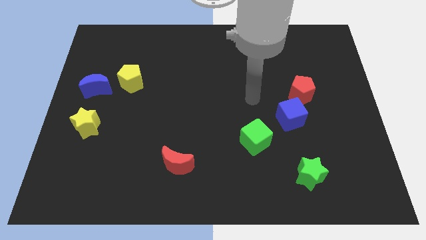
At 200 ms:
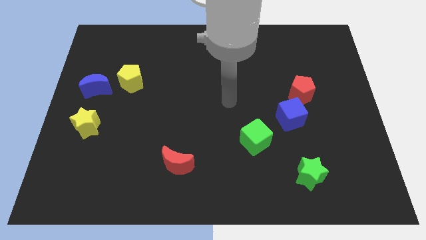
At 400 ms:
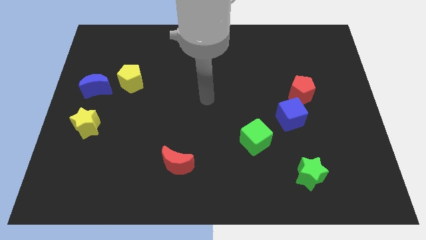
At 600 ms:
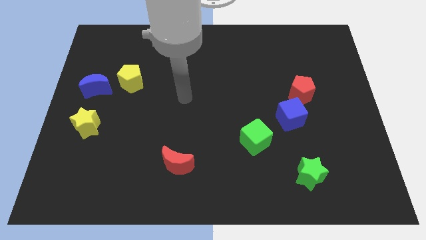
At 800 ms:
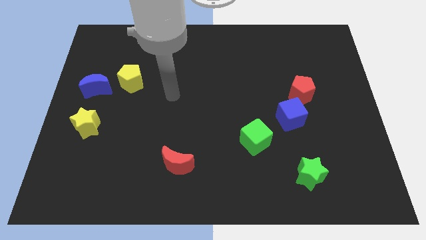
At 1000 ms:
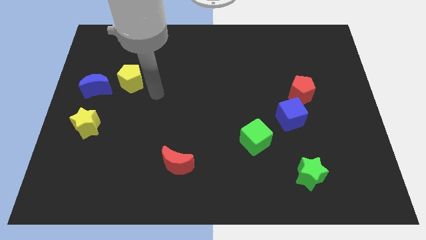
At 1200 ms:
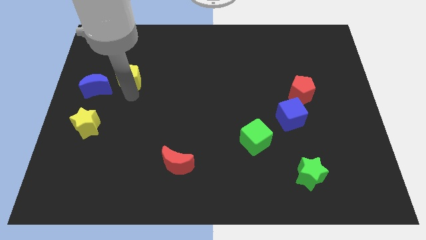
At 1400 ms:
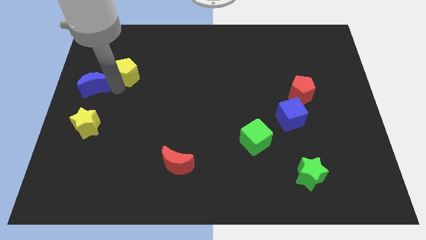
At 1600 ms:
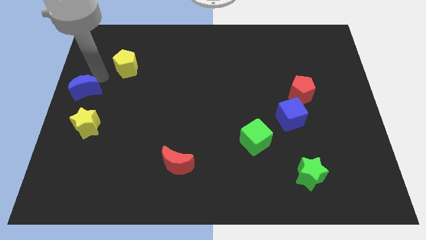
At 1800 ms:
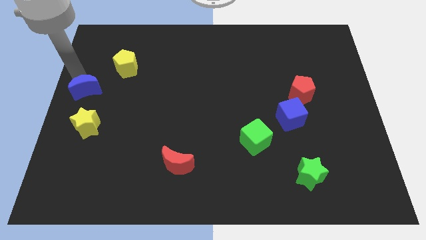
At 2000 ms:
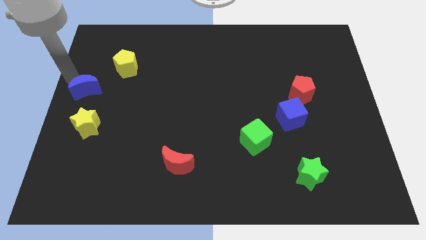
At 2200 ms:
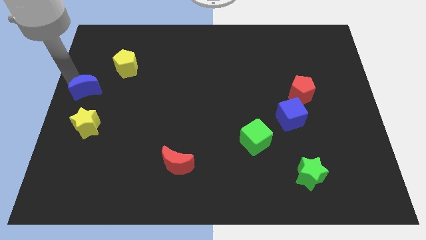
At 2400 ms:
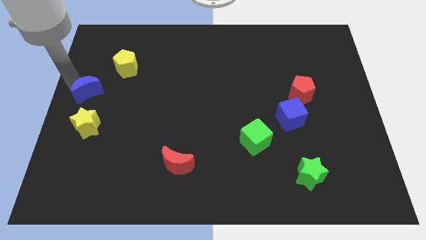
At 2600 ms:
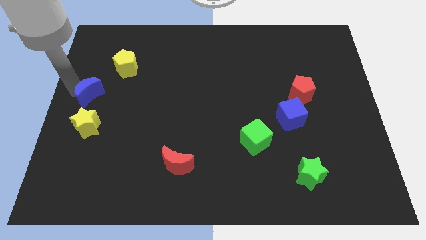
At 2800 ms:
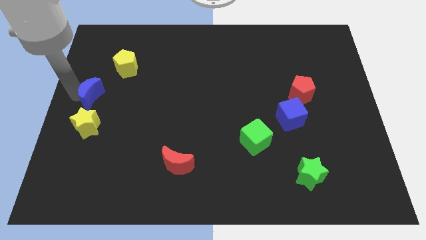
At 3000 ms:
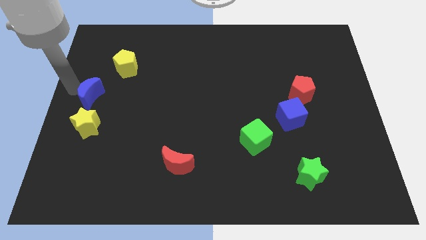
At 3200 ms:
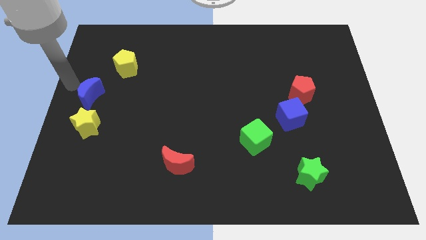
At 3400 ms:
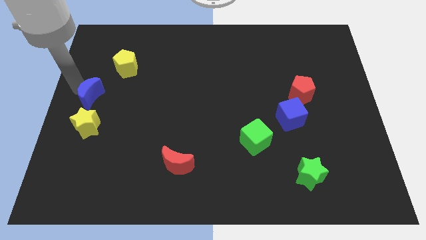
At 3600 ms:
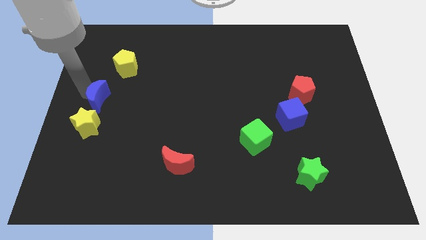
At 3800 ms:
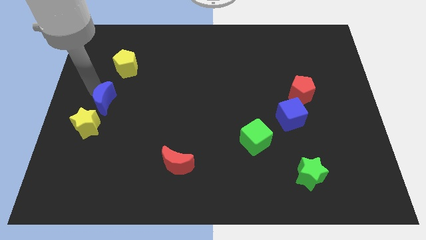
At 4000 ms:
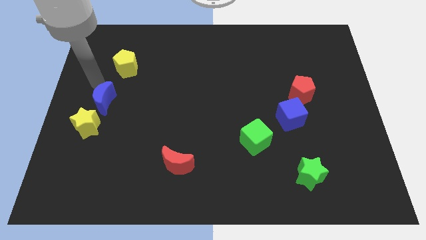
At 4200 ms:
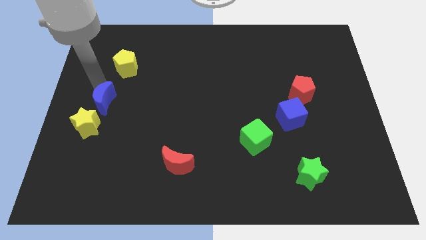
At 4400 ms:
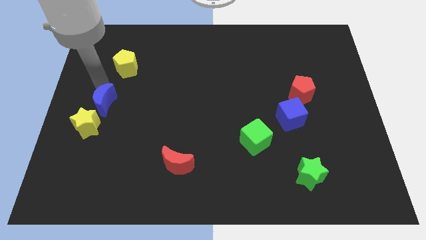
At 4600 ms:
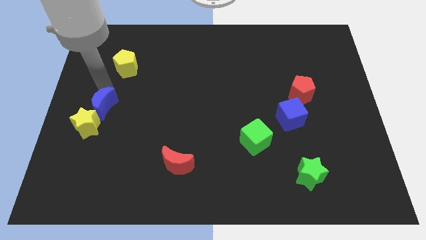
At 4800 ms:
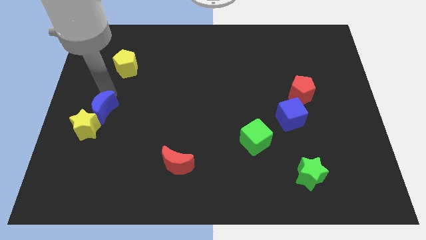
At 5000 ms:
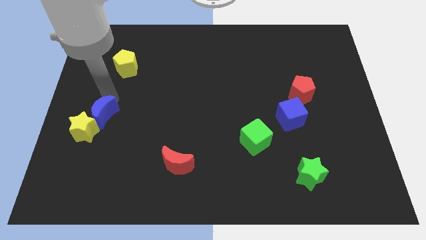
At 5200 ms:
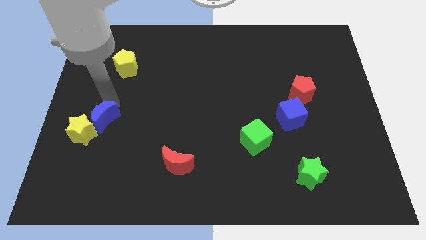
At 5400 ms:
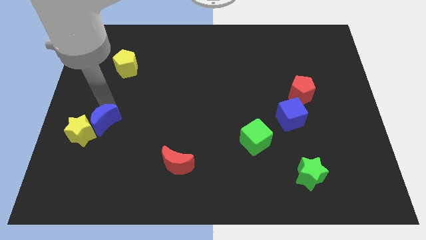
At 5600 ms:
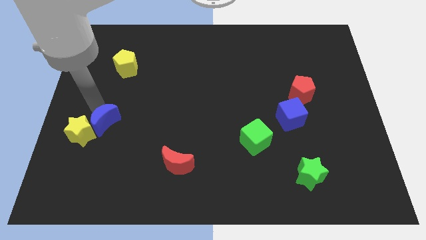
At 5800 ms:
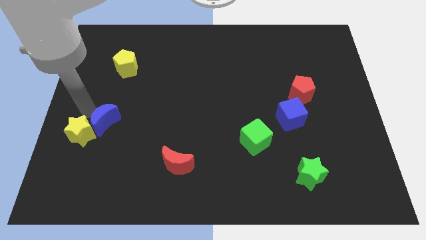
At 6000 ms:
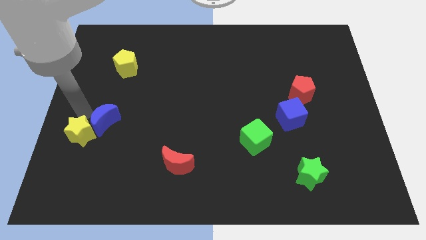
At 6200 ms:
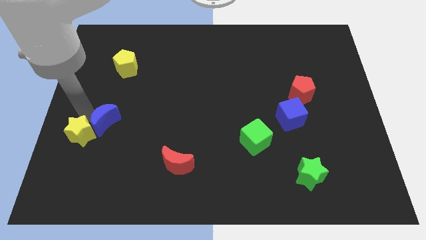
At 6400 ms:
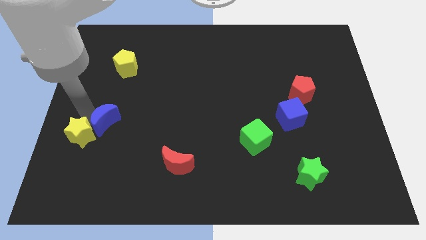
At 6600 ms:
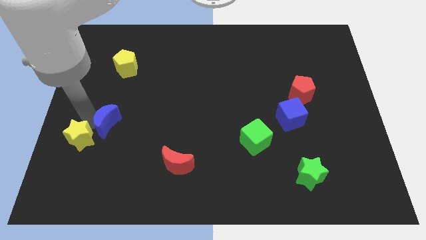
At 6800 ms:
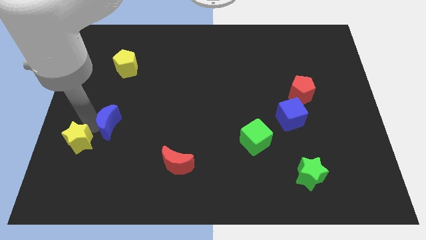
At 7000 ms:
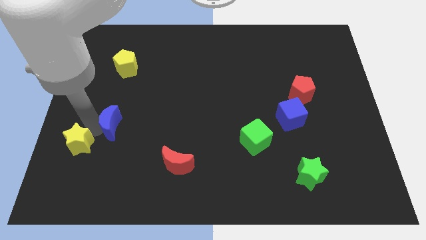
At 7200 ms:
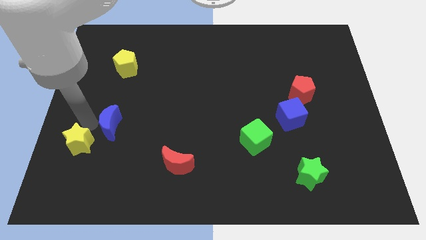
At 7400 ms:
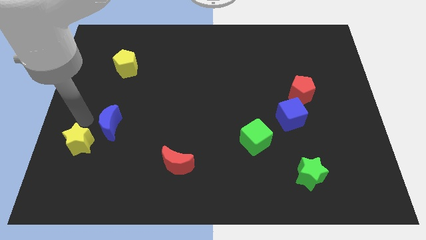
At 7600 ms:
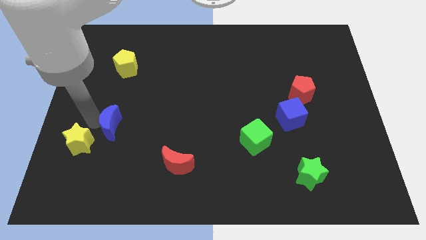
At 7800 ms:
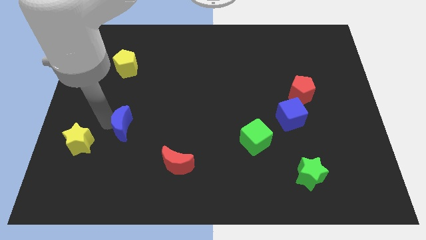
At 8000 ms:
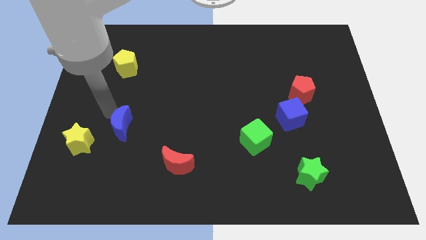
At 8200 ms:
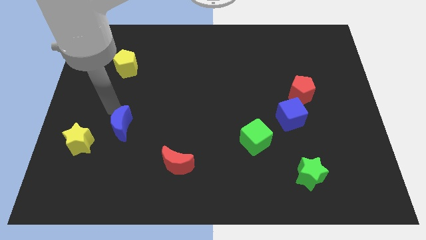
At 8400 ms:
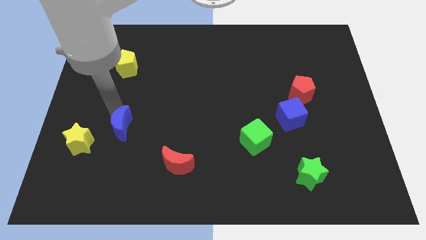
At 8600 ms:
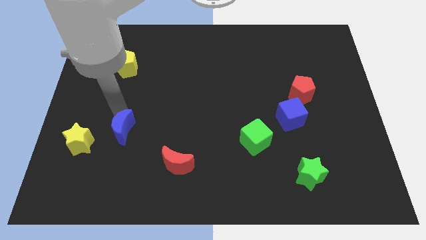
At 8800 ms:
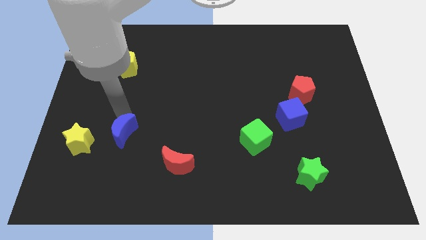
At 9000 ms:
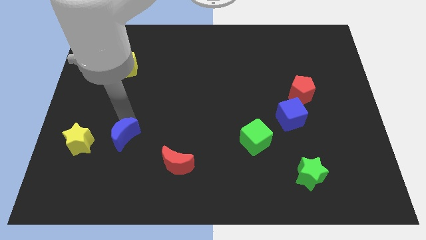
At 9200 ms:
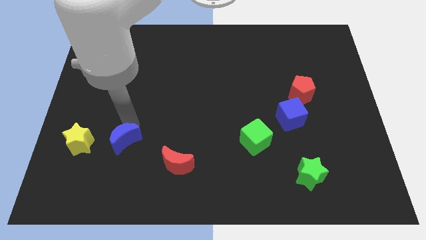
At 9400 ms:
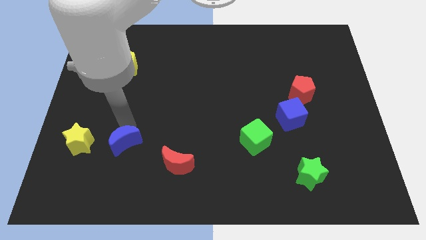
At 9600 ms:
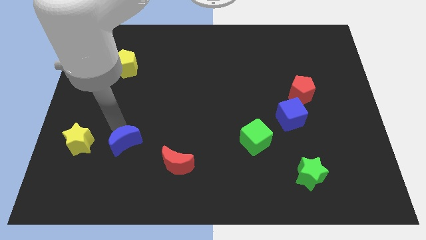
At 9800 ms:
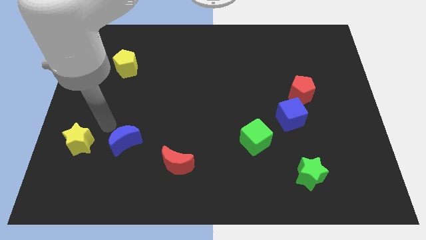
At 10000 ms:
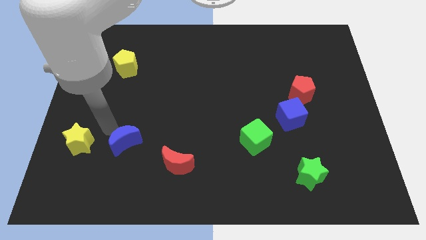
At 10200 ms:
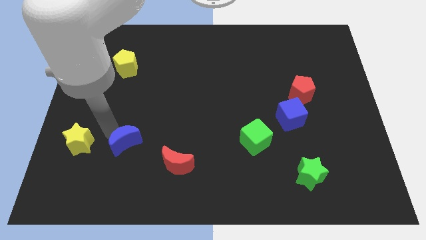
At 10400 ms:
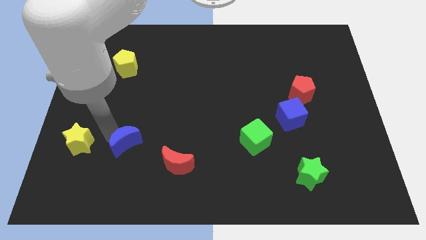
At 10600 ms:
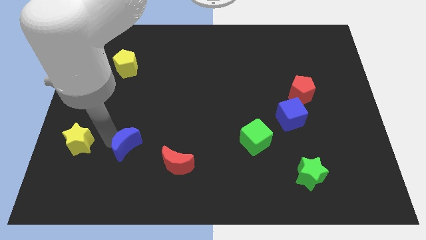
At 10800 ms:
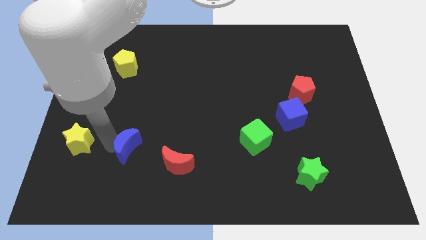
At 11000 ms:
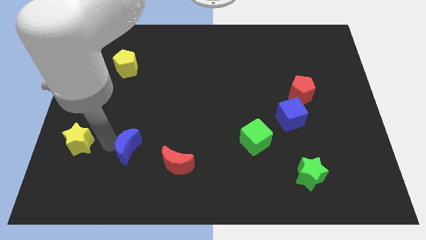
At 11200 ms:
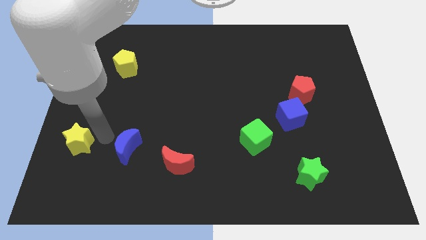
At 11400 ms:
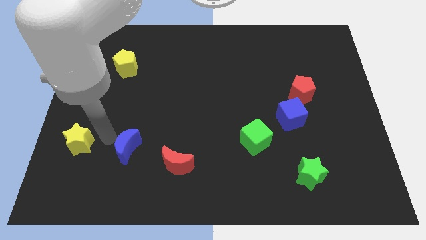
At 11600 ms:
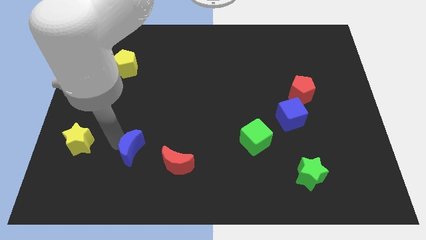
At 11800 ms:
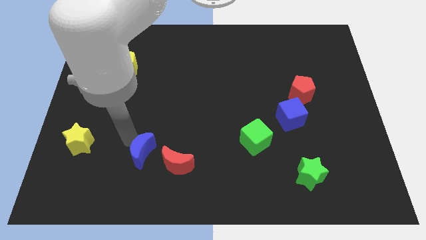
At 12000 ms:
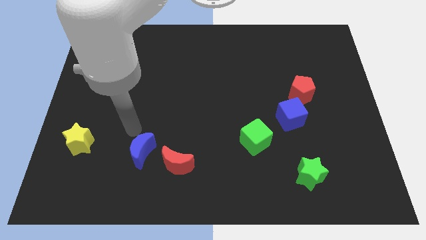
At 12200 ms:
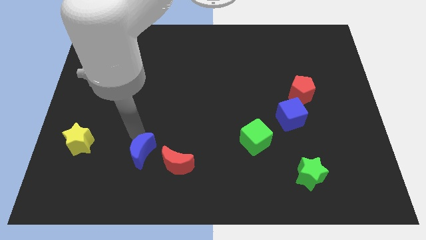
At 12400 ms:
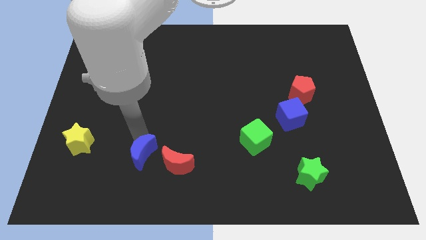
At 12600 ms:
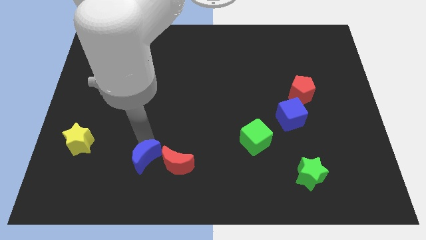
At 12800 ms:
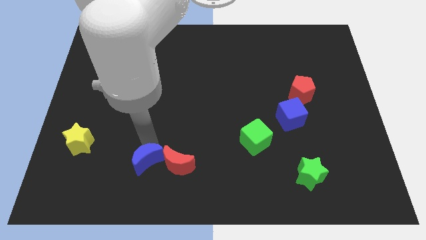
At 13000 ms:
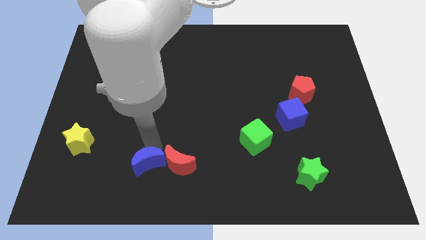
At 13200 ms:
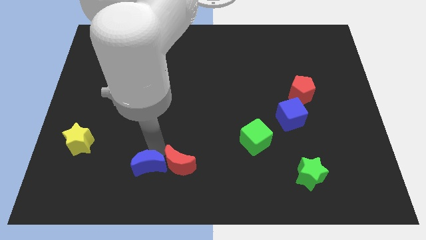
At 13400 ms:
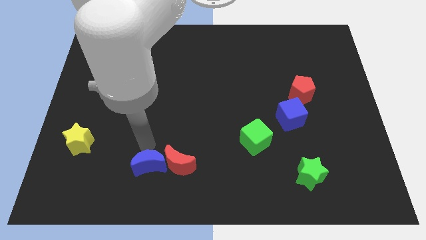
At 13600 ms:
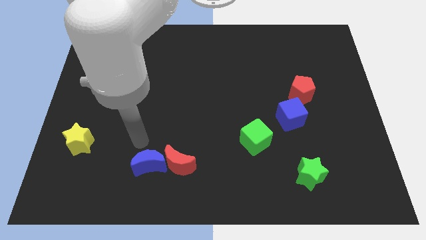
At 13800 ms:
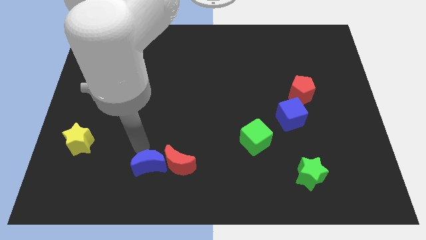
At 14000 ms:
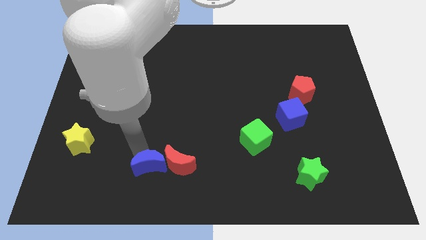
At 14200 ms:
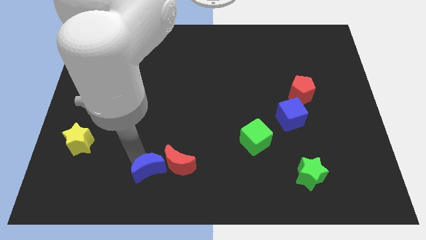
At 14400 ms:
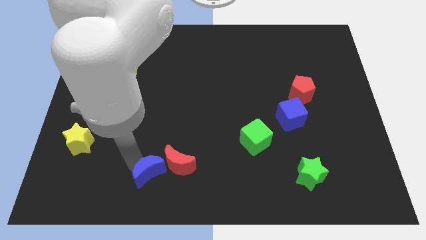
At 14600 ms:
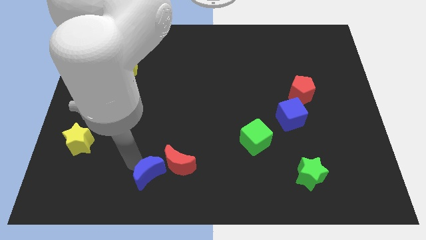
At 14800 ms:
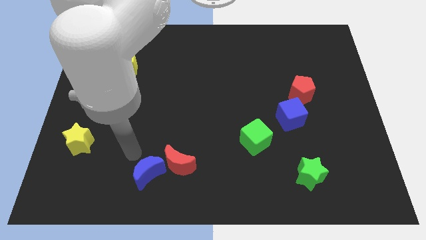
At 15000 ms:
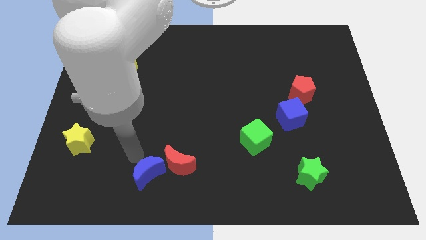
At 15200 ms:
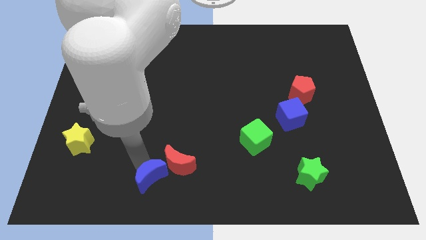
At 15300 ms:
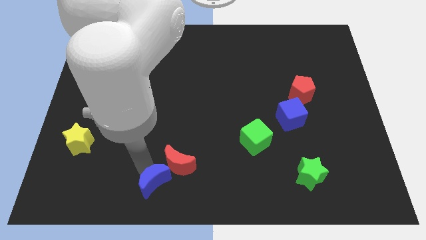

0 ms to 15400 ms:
move the blue moon to the bottom
